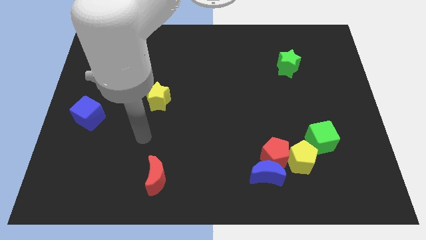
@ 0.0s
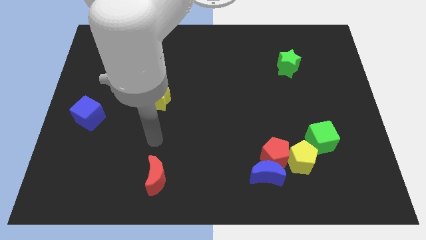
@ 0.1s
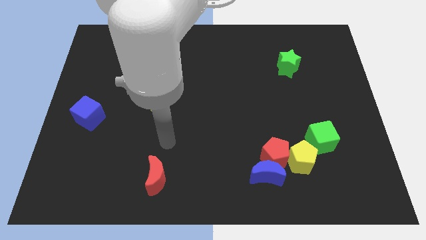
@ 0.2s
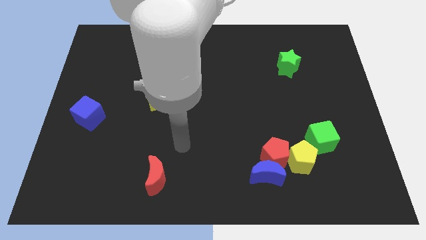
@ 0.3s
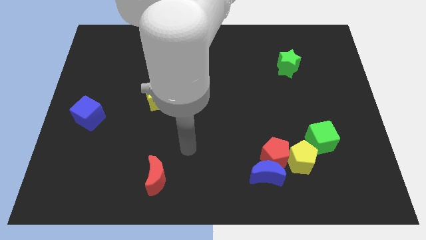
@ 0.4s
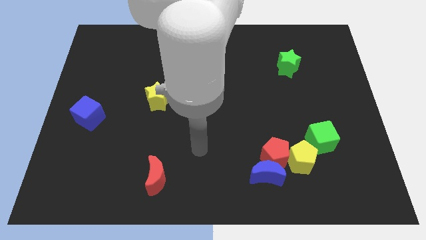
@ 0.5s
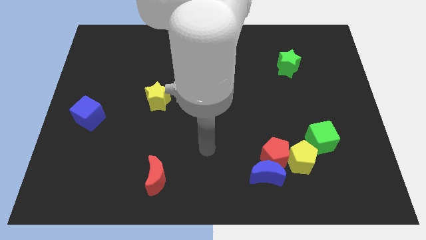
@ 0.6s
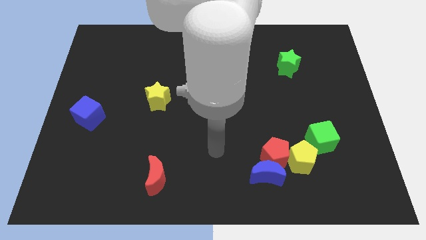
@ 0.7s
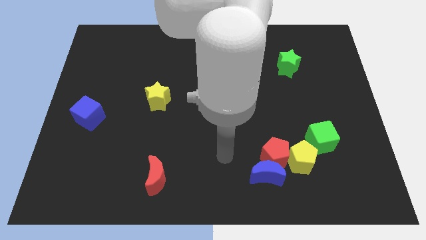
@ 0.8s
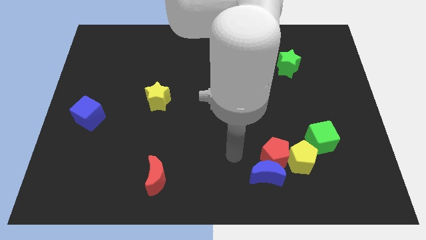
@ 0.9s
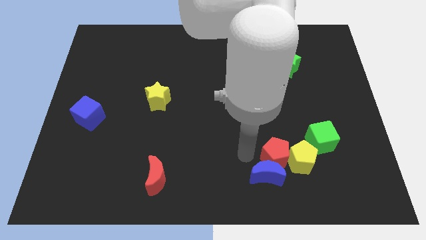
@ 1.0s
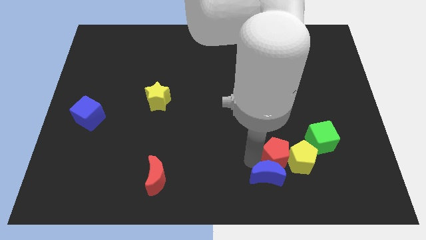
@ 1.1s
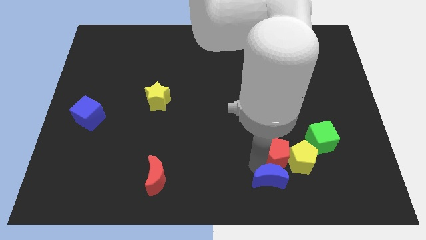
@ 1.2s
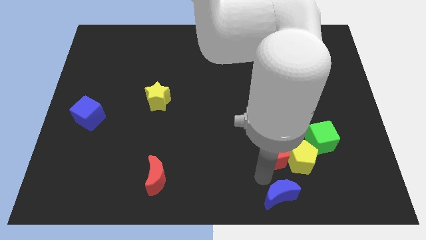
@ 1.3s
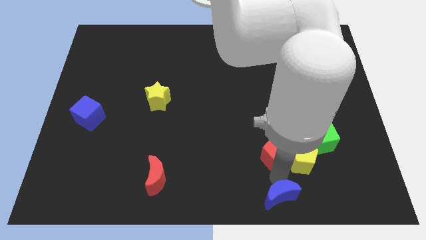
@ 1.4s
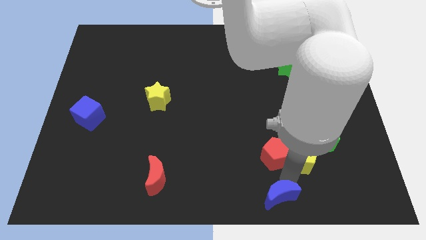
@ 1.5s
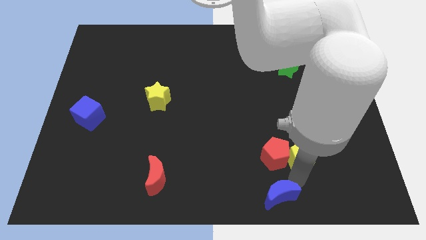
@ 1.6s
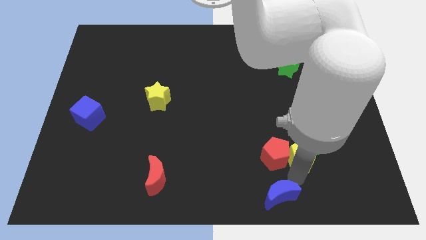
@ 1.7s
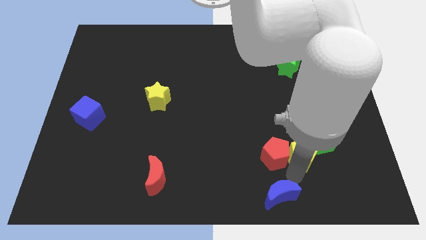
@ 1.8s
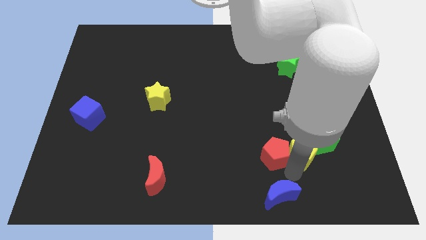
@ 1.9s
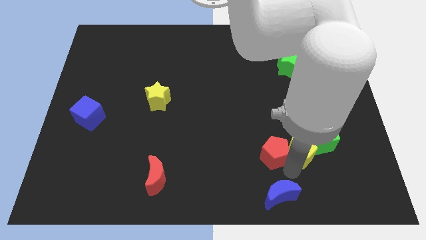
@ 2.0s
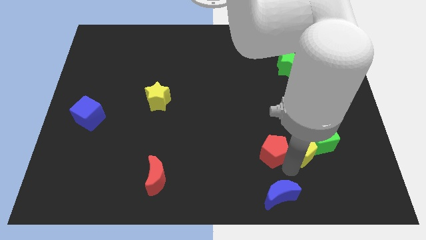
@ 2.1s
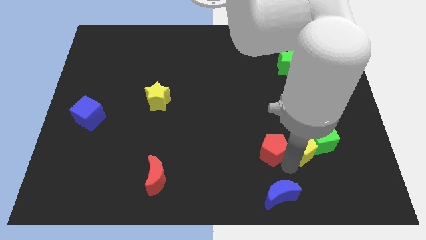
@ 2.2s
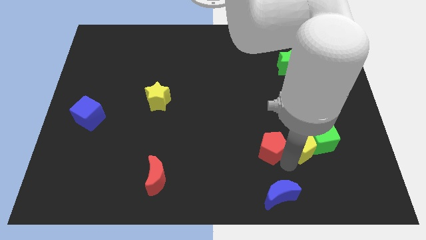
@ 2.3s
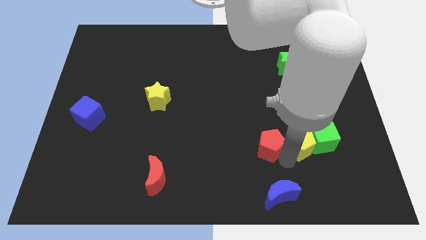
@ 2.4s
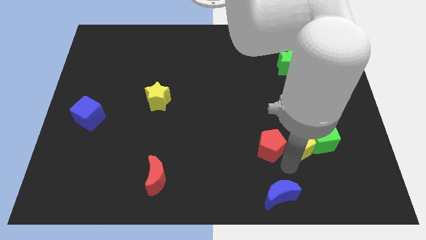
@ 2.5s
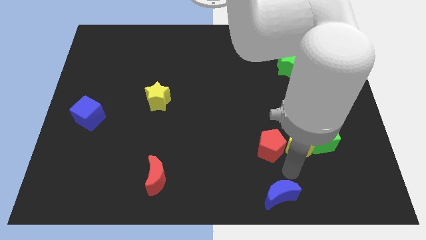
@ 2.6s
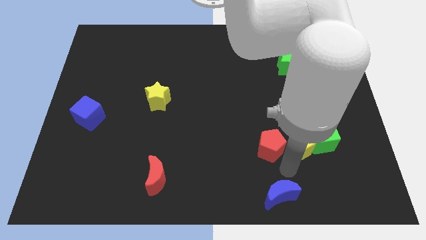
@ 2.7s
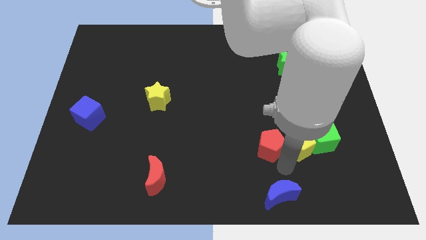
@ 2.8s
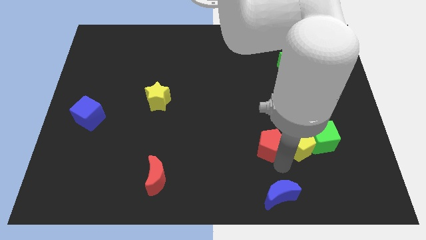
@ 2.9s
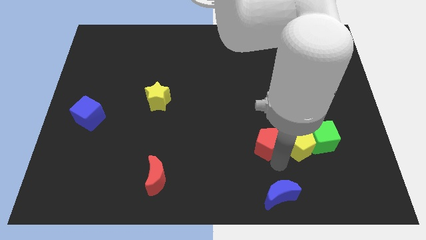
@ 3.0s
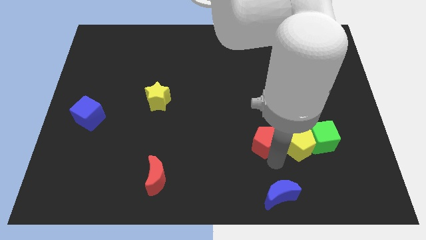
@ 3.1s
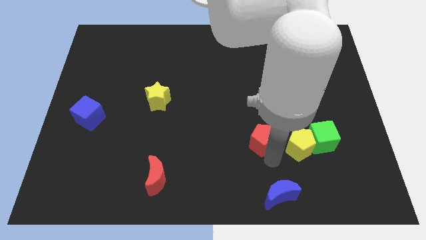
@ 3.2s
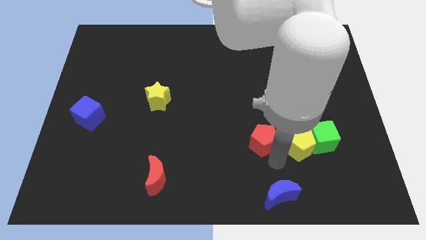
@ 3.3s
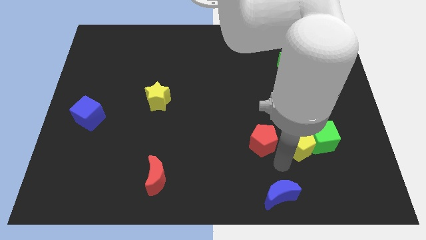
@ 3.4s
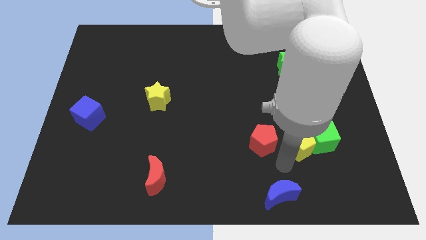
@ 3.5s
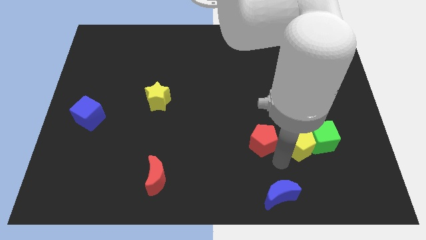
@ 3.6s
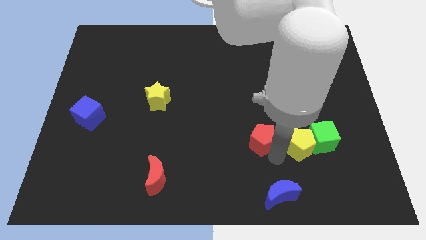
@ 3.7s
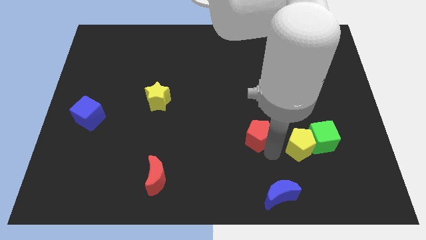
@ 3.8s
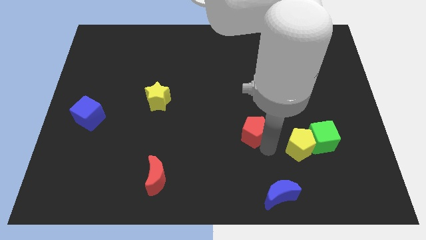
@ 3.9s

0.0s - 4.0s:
separate the red pentagon from the blue moon and yellow pentagon

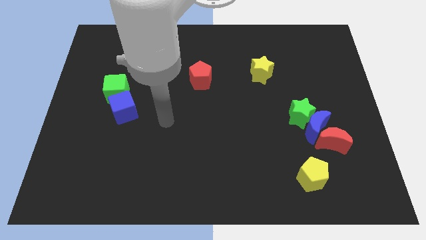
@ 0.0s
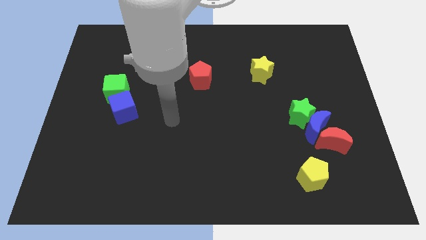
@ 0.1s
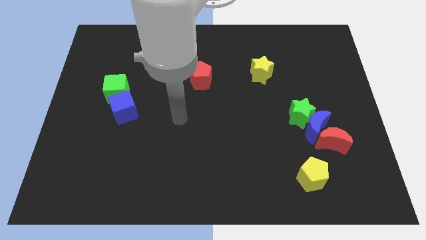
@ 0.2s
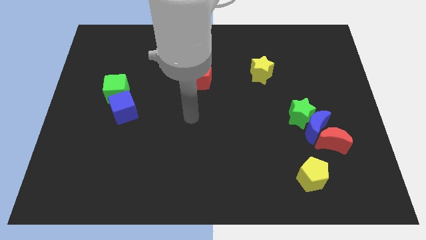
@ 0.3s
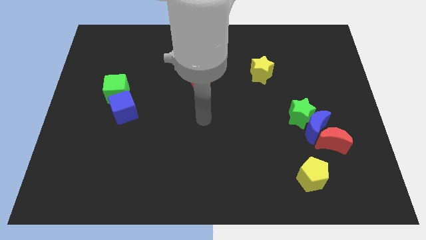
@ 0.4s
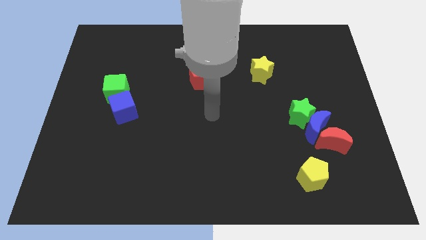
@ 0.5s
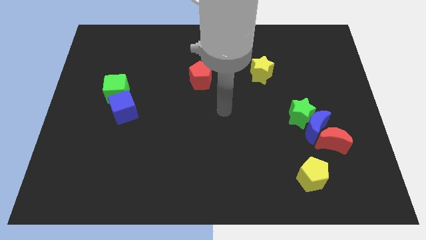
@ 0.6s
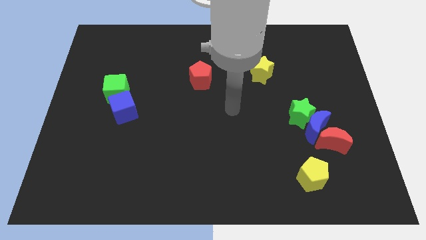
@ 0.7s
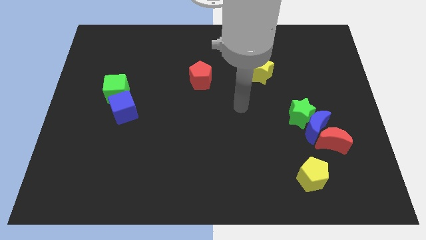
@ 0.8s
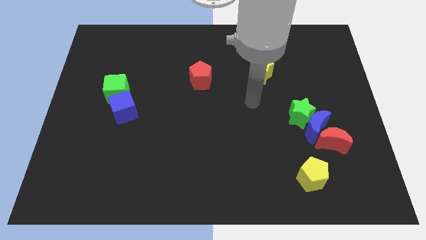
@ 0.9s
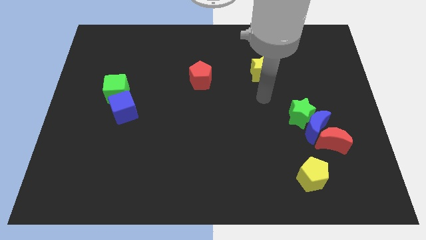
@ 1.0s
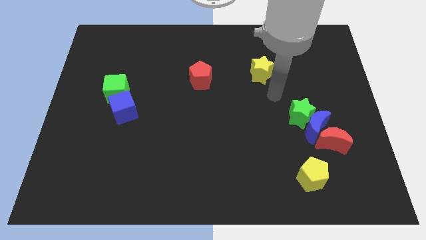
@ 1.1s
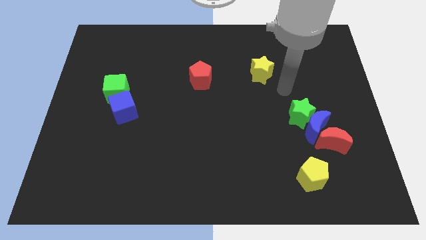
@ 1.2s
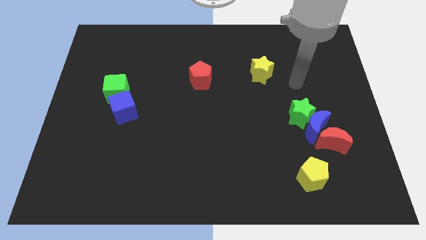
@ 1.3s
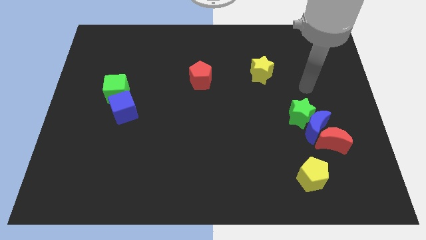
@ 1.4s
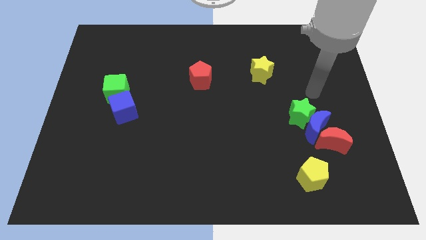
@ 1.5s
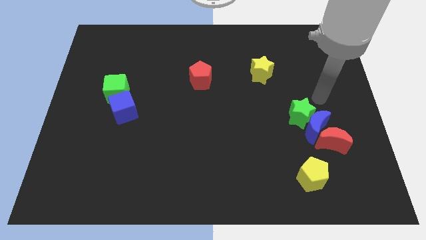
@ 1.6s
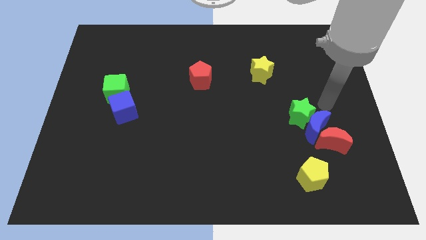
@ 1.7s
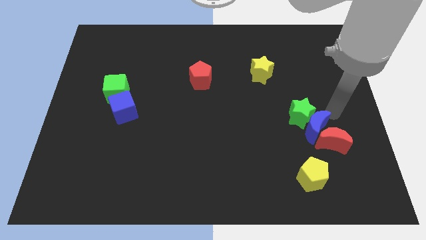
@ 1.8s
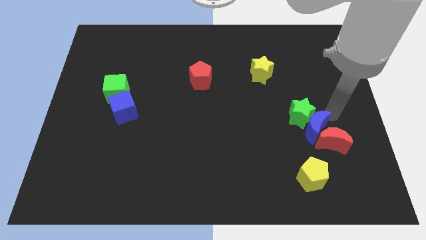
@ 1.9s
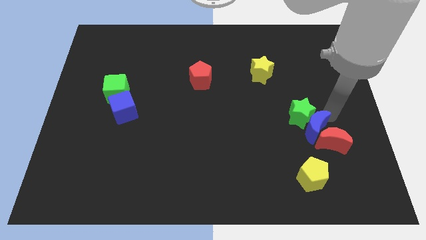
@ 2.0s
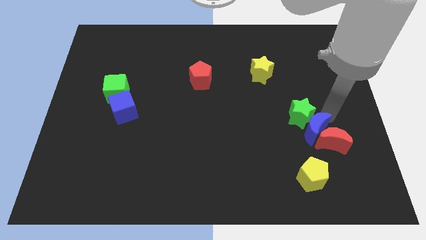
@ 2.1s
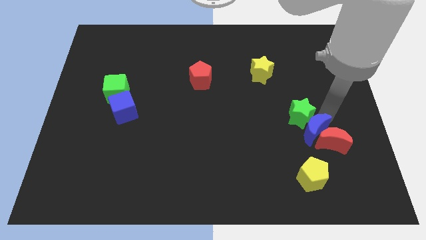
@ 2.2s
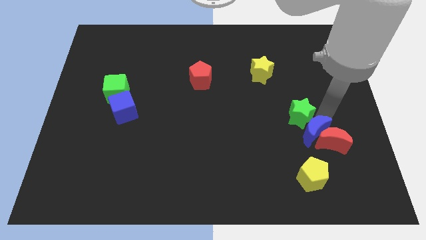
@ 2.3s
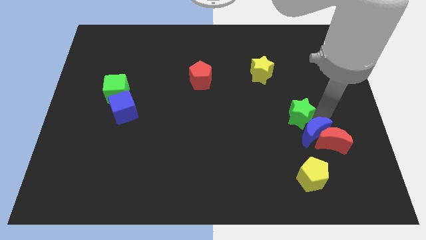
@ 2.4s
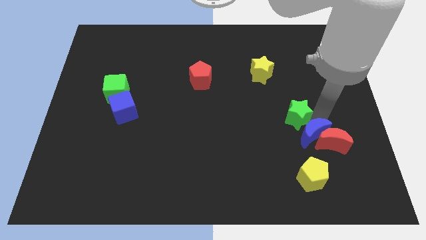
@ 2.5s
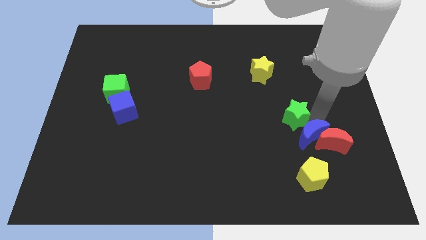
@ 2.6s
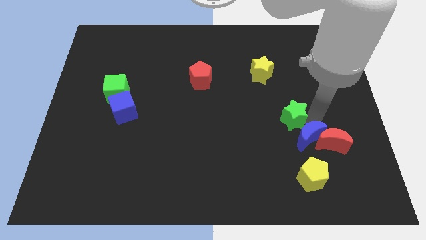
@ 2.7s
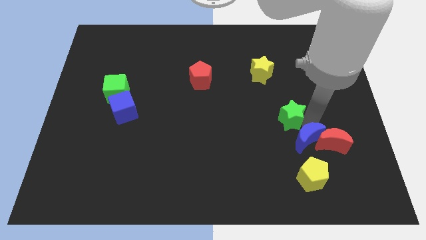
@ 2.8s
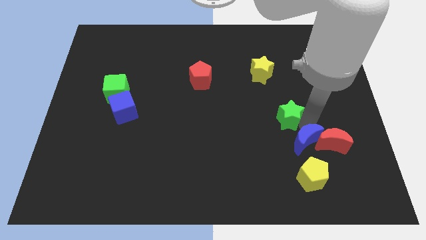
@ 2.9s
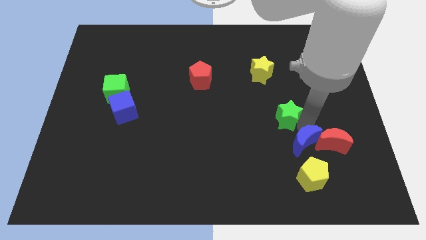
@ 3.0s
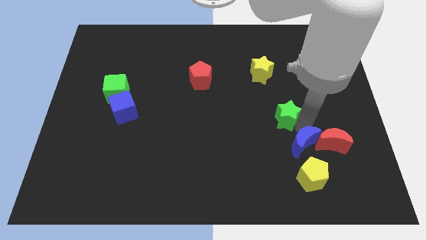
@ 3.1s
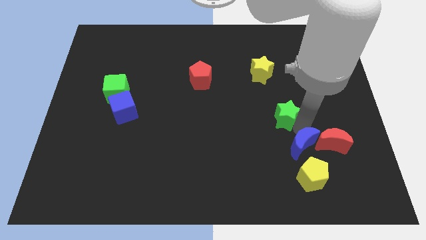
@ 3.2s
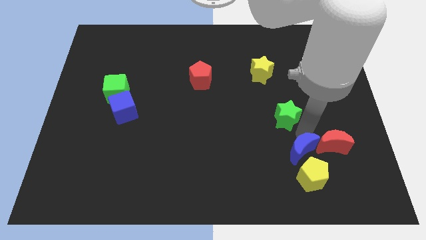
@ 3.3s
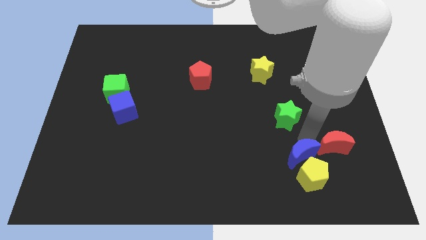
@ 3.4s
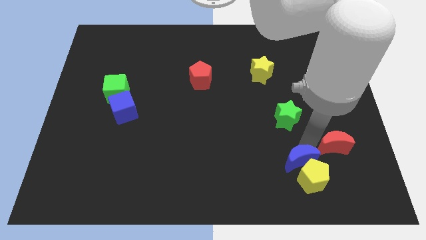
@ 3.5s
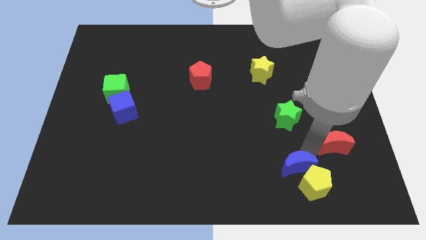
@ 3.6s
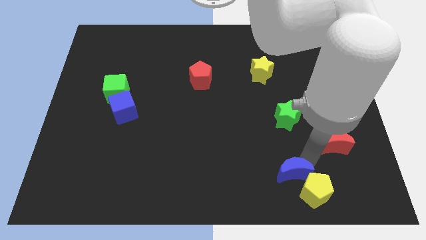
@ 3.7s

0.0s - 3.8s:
pull the blue moon apart from the green star and red moon

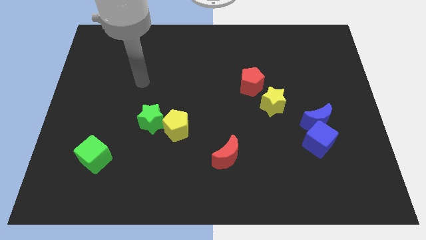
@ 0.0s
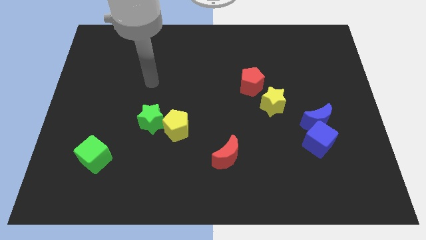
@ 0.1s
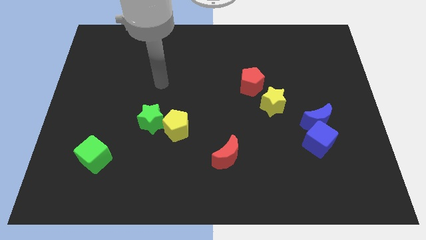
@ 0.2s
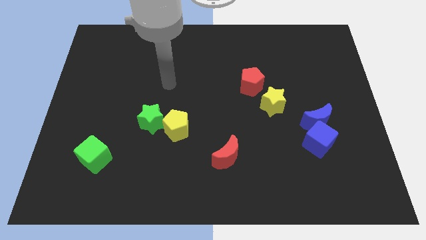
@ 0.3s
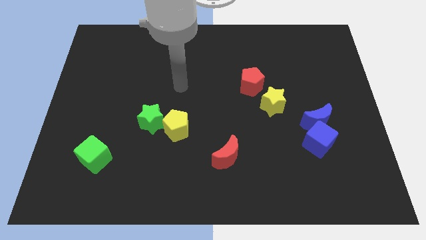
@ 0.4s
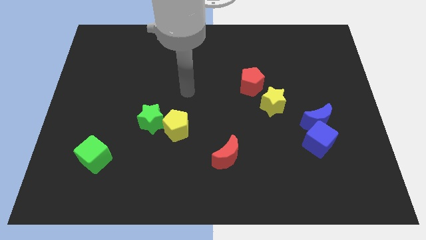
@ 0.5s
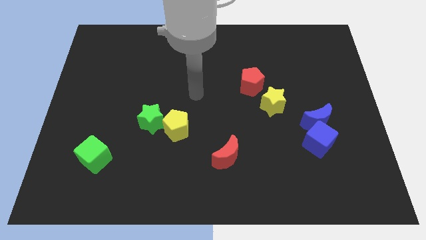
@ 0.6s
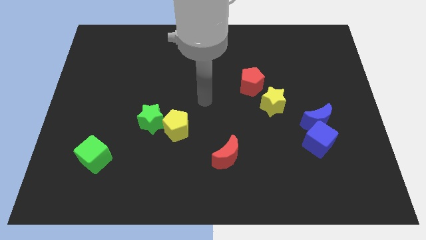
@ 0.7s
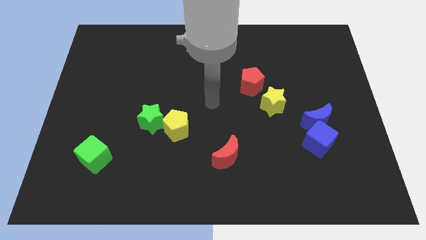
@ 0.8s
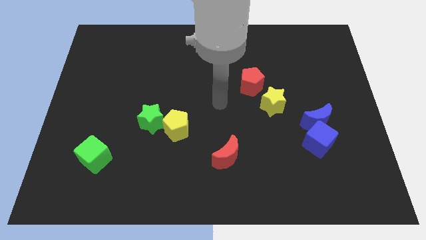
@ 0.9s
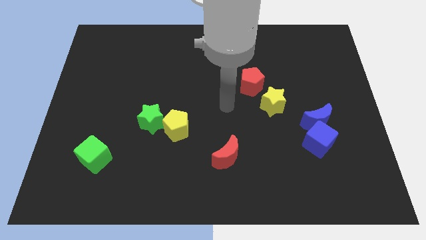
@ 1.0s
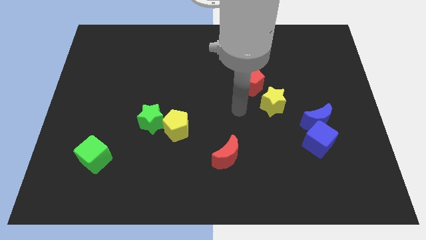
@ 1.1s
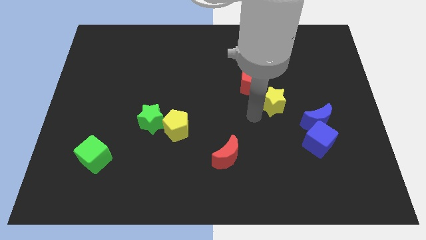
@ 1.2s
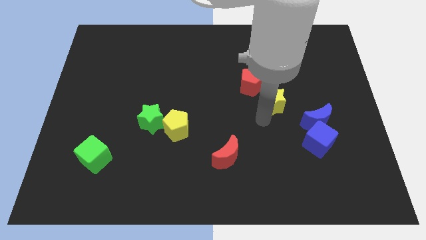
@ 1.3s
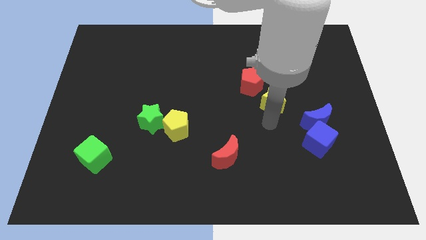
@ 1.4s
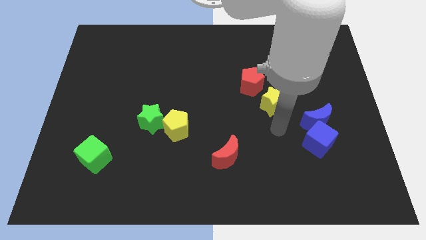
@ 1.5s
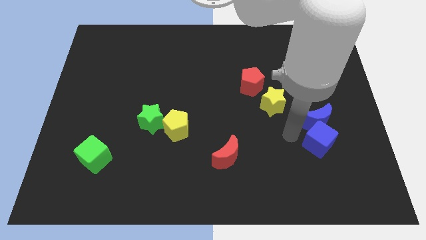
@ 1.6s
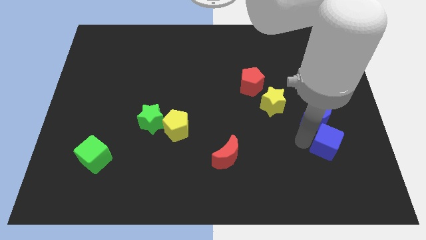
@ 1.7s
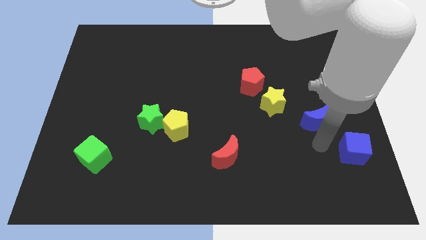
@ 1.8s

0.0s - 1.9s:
move the blue moon away from the blue cube
